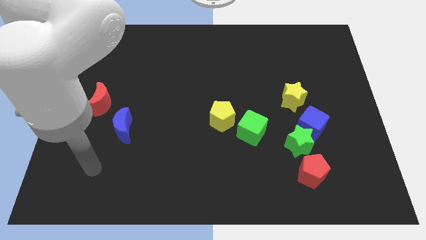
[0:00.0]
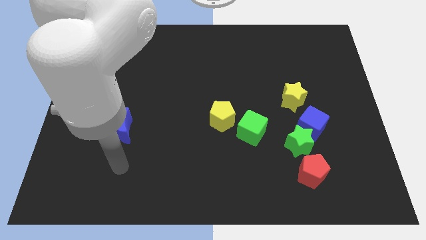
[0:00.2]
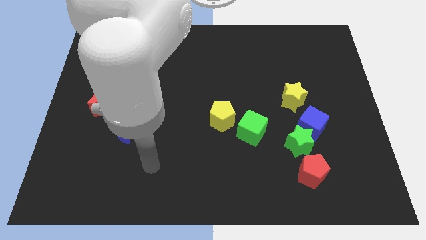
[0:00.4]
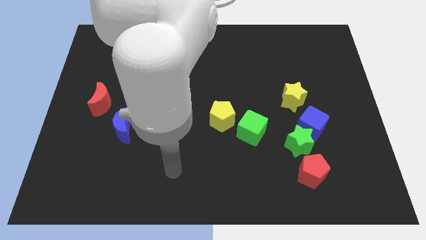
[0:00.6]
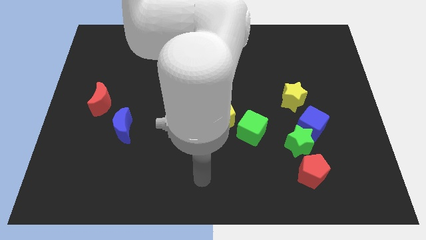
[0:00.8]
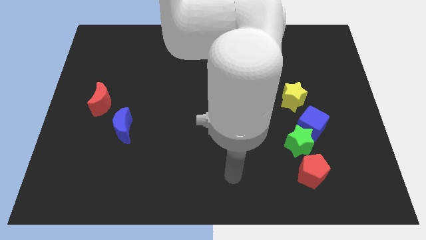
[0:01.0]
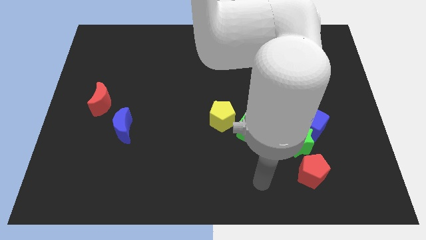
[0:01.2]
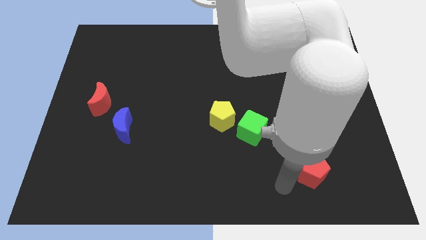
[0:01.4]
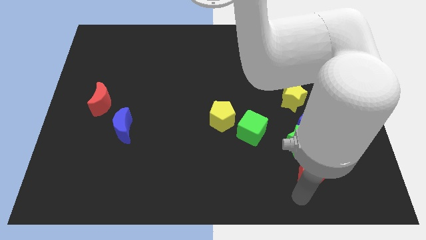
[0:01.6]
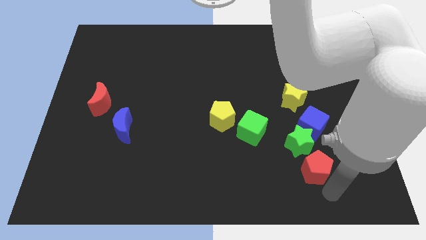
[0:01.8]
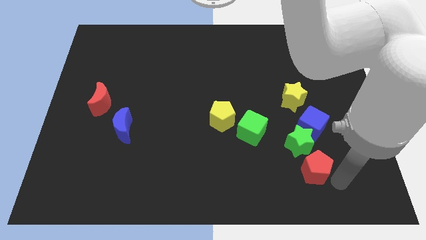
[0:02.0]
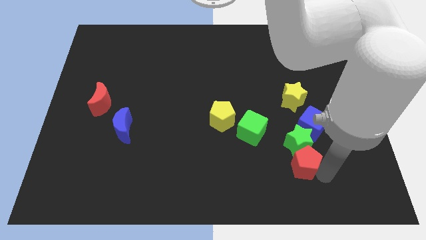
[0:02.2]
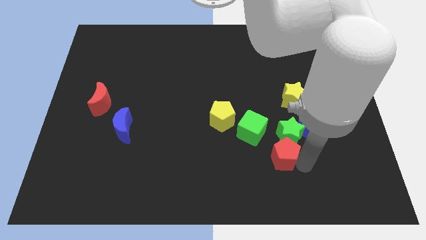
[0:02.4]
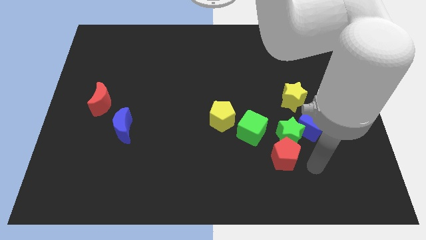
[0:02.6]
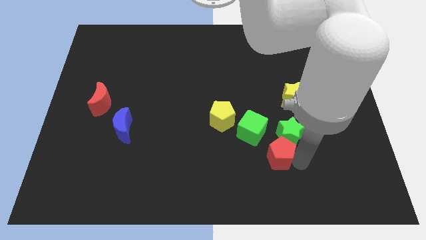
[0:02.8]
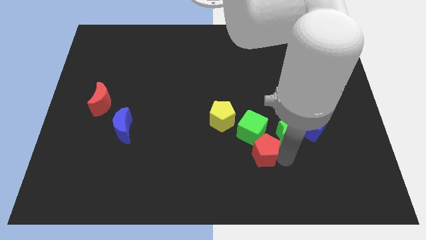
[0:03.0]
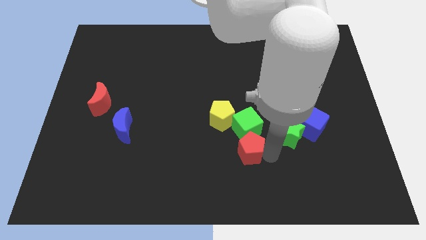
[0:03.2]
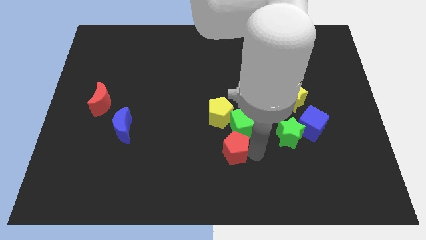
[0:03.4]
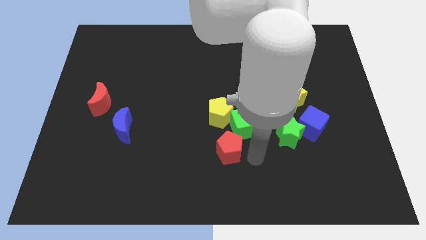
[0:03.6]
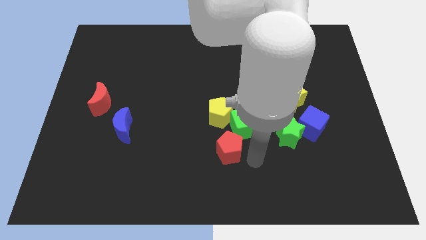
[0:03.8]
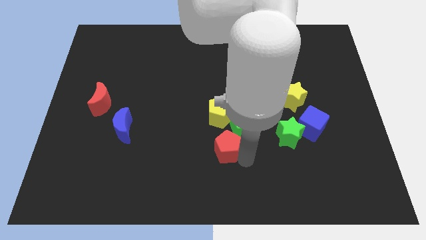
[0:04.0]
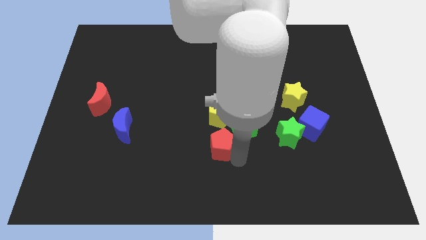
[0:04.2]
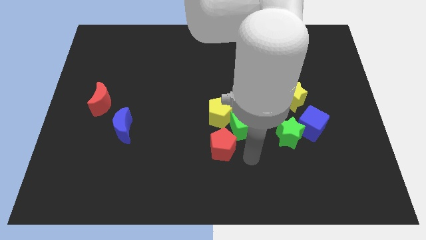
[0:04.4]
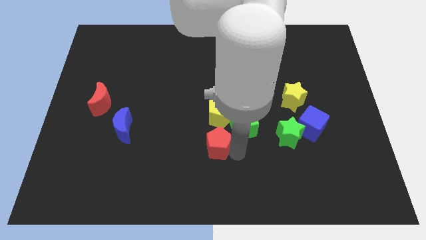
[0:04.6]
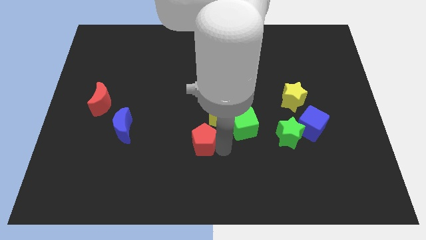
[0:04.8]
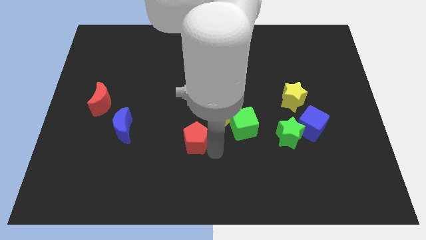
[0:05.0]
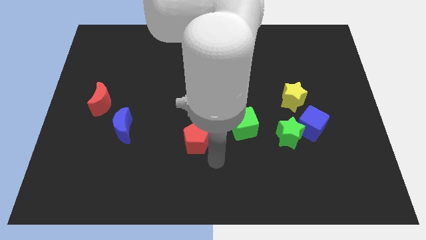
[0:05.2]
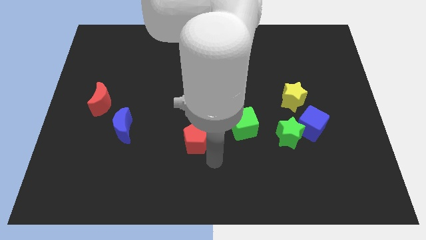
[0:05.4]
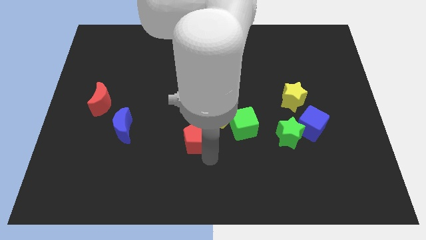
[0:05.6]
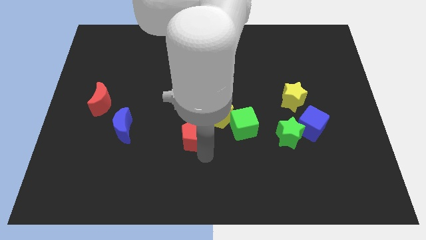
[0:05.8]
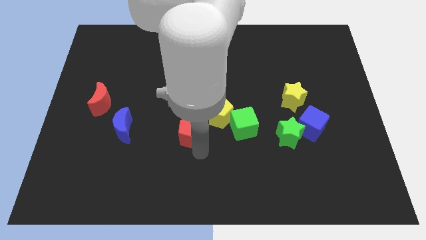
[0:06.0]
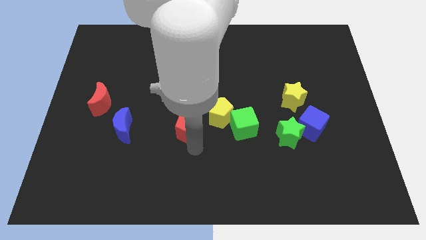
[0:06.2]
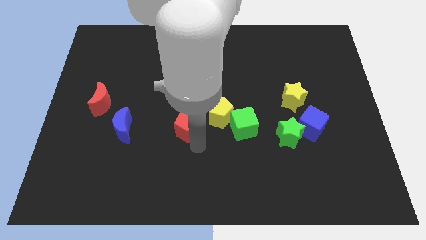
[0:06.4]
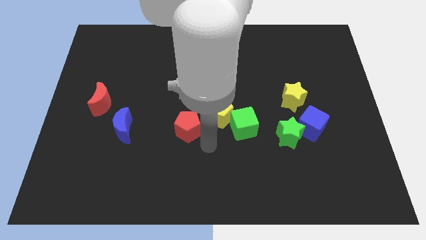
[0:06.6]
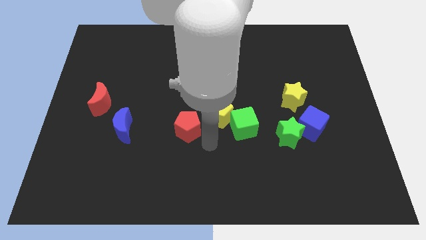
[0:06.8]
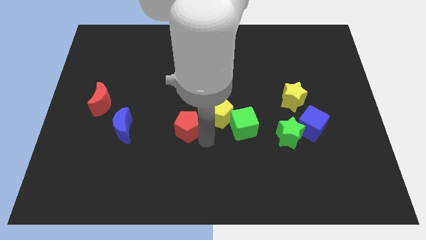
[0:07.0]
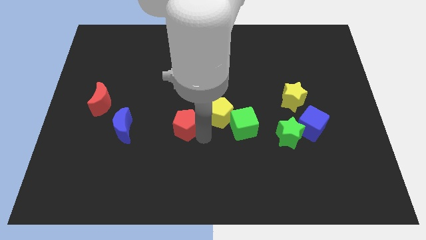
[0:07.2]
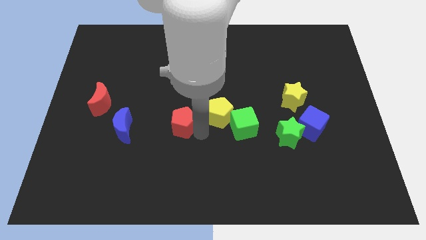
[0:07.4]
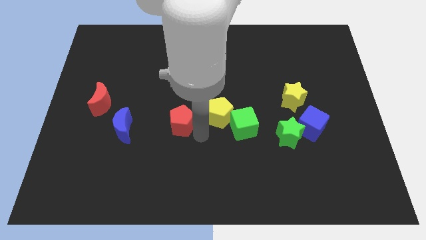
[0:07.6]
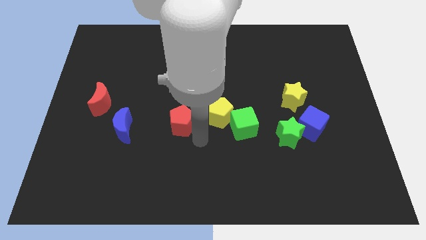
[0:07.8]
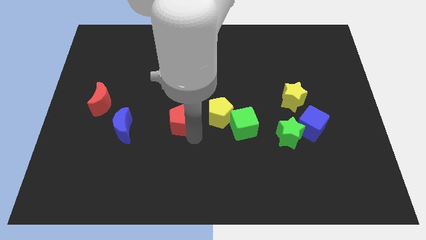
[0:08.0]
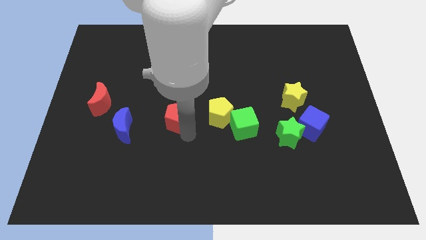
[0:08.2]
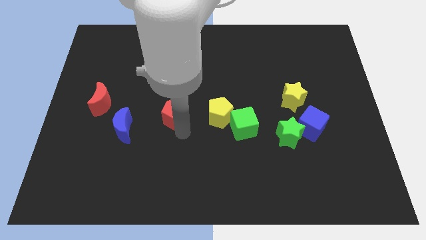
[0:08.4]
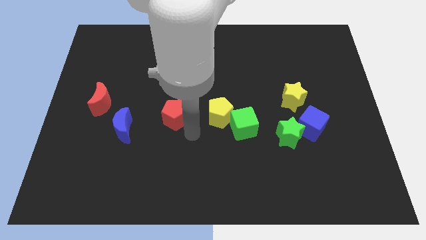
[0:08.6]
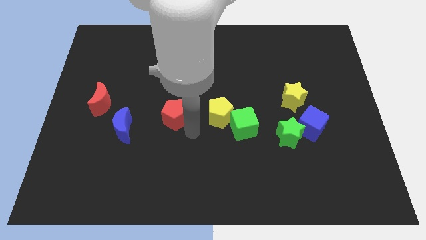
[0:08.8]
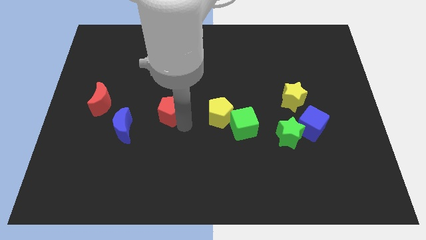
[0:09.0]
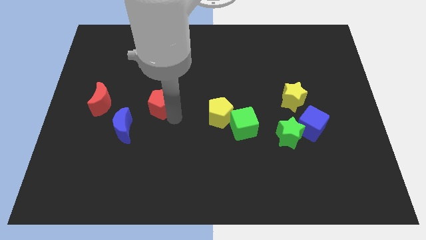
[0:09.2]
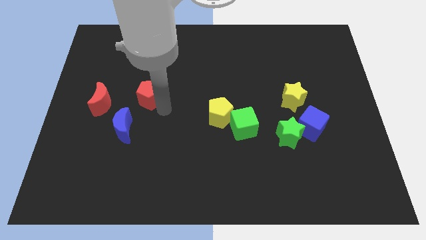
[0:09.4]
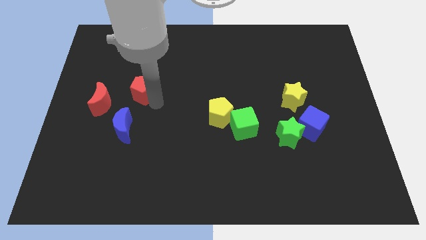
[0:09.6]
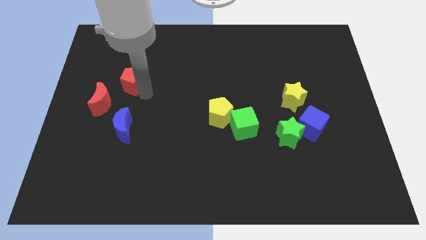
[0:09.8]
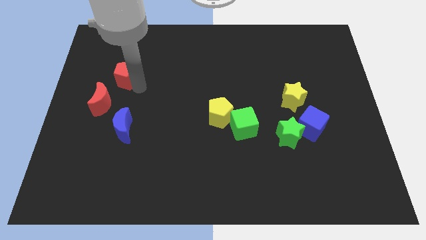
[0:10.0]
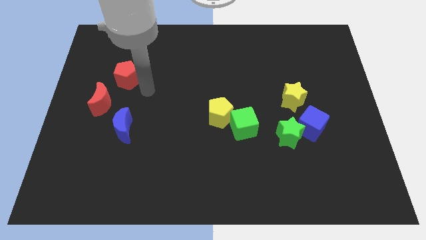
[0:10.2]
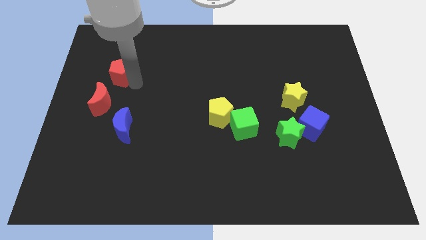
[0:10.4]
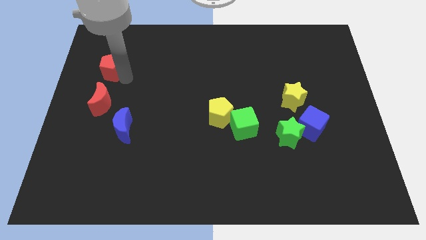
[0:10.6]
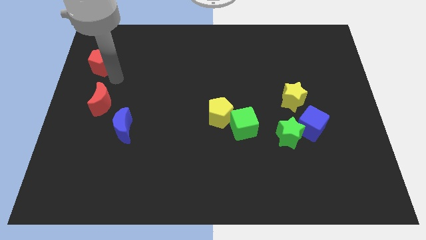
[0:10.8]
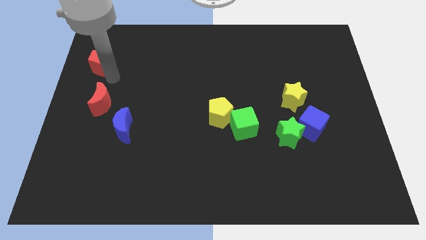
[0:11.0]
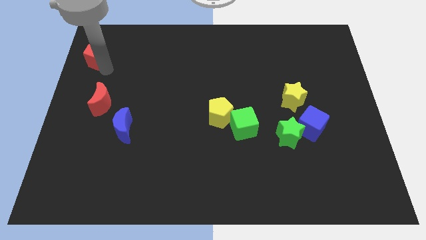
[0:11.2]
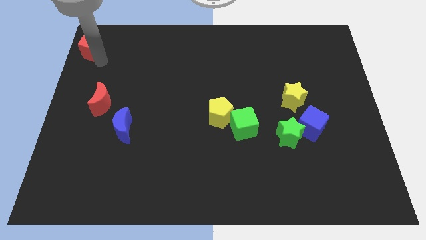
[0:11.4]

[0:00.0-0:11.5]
slide the red pentagon to the top left
